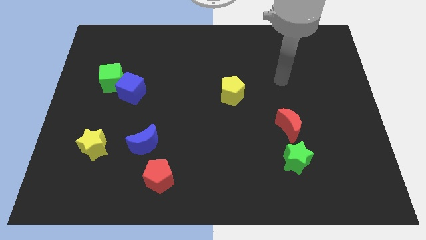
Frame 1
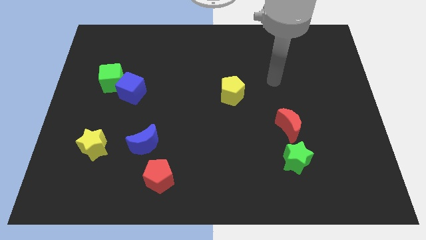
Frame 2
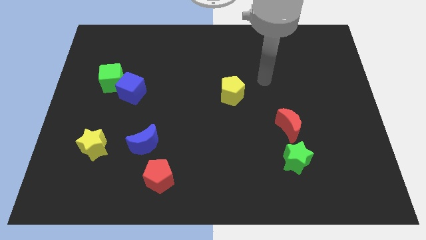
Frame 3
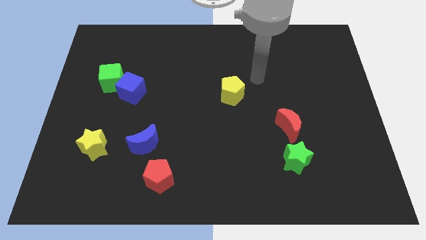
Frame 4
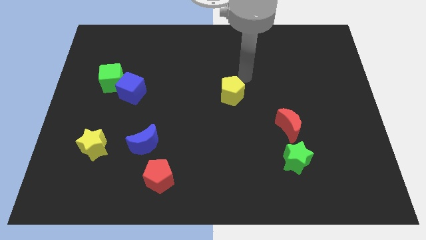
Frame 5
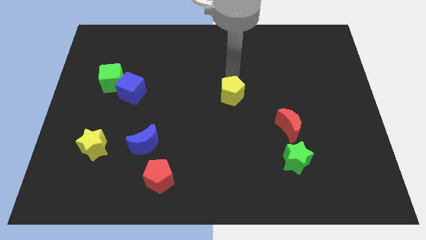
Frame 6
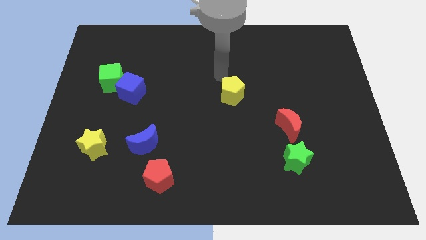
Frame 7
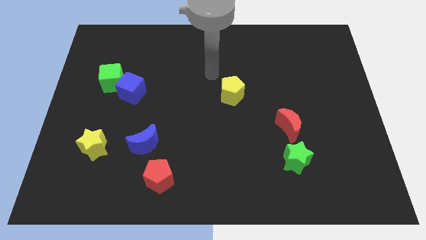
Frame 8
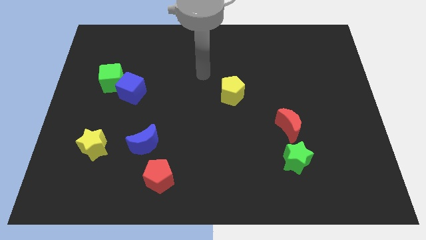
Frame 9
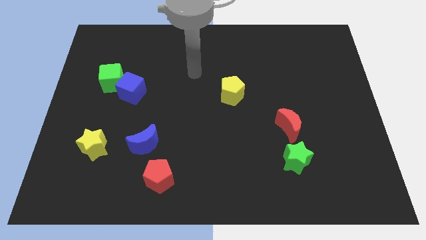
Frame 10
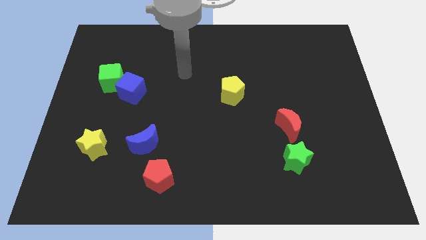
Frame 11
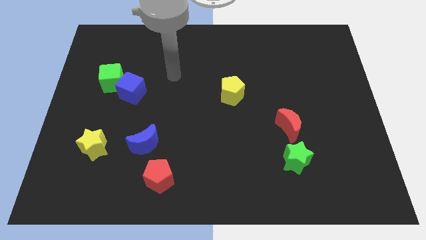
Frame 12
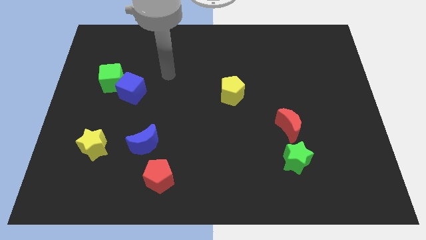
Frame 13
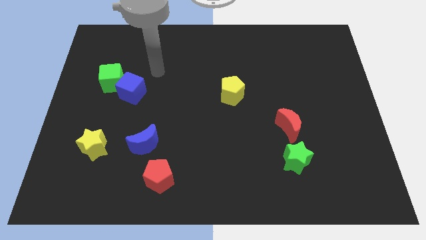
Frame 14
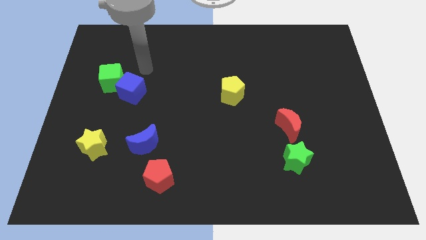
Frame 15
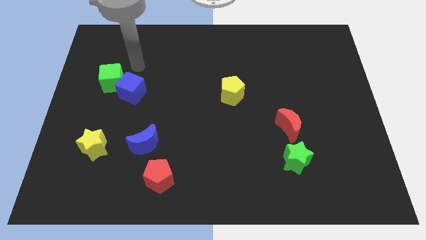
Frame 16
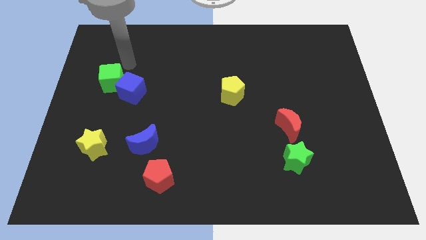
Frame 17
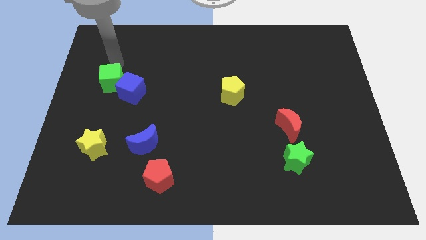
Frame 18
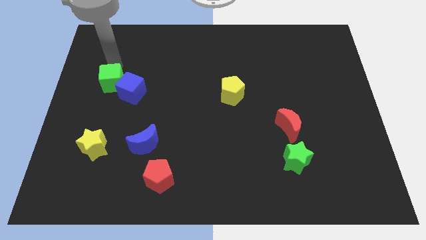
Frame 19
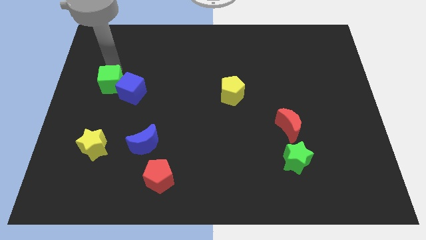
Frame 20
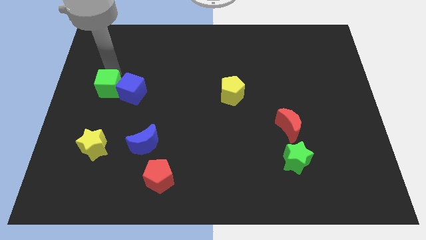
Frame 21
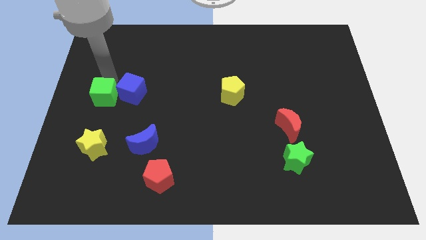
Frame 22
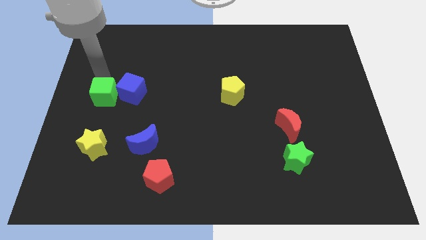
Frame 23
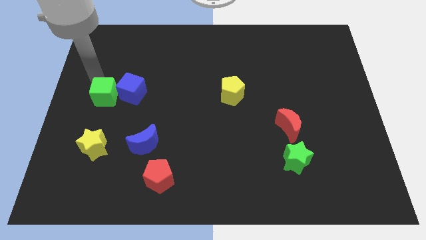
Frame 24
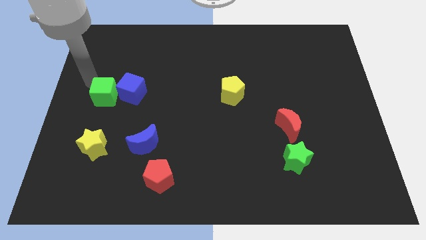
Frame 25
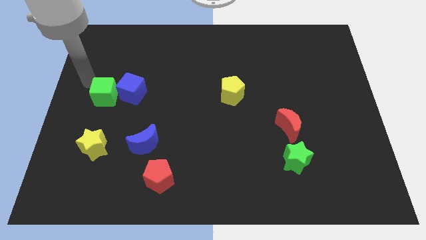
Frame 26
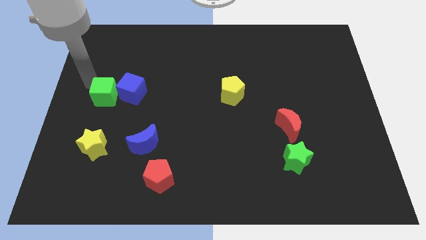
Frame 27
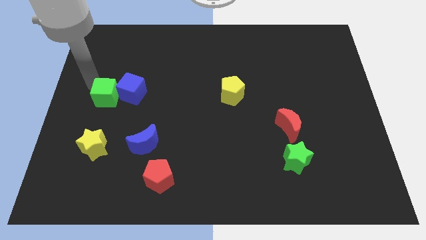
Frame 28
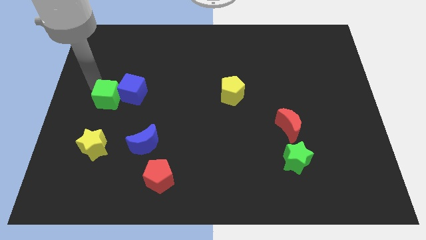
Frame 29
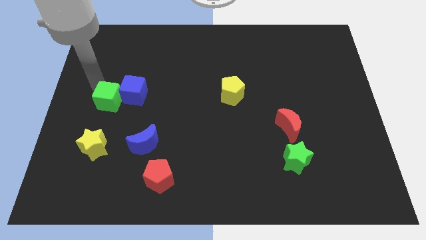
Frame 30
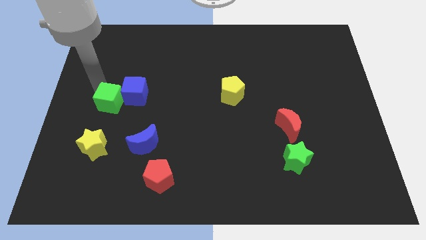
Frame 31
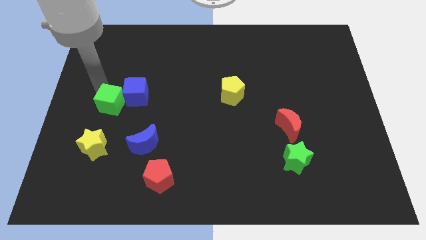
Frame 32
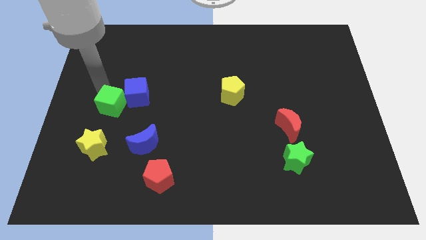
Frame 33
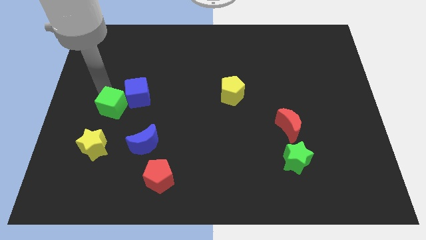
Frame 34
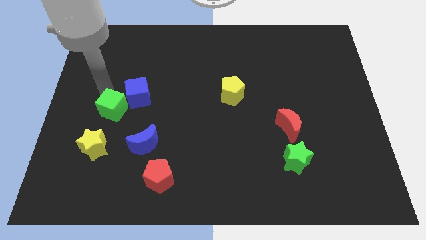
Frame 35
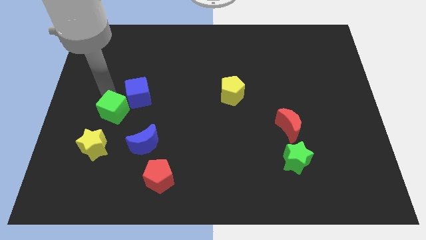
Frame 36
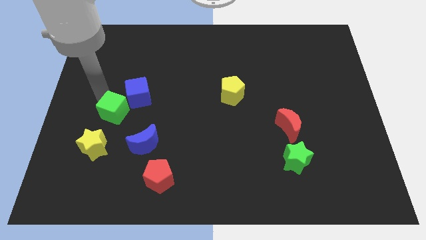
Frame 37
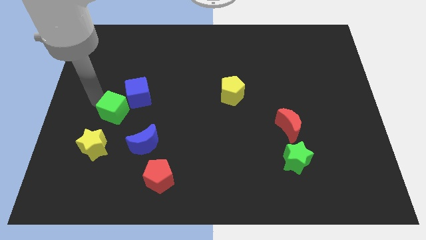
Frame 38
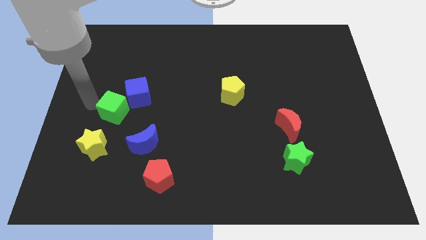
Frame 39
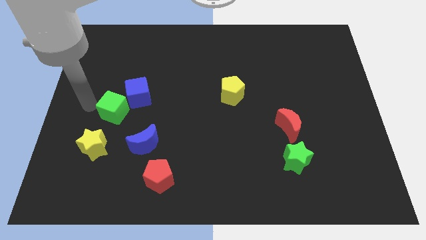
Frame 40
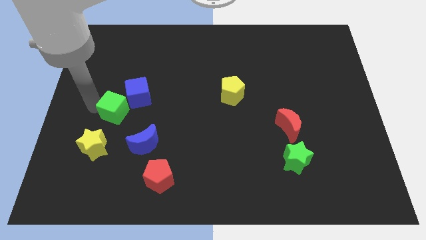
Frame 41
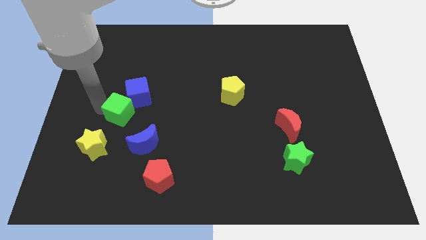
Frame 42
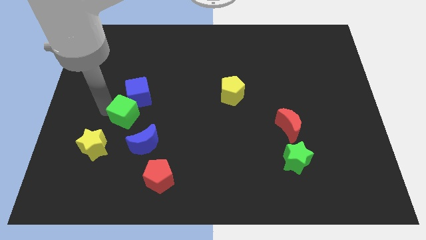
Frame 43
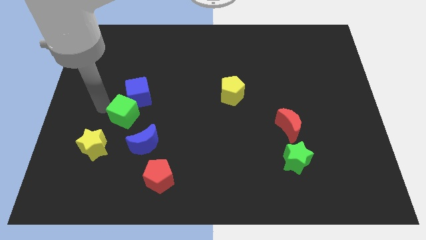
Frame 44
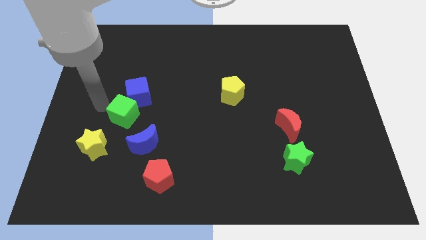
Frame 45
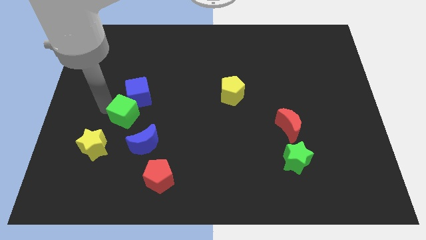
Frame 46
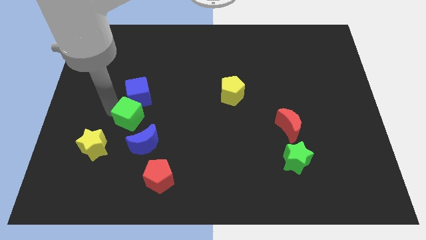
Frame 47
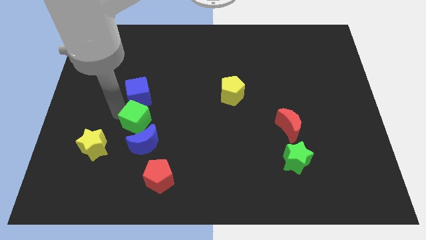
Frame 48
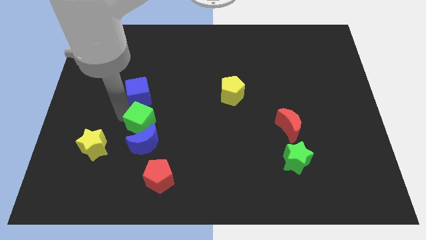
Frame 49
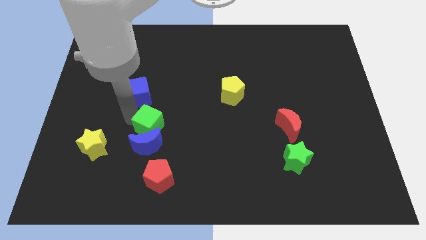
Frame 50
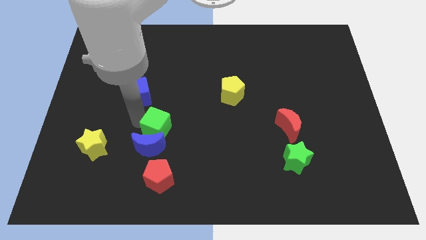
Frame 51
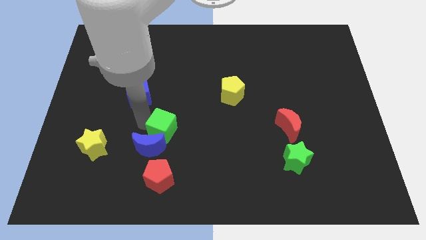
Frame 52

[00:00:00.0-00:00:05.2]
slide the green cube downwards and right

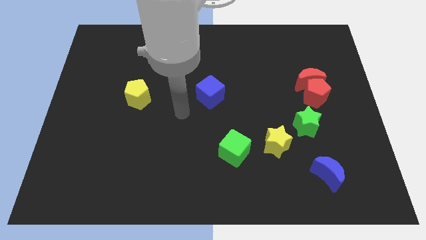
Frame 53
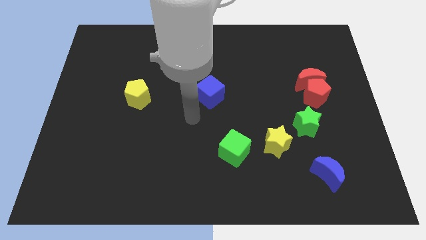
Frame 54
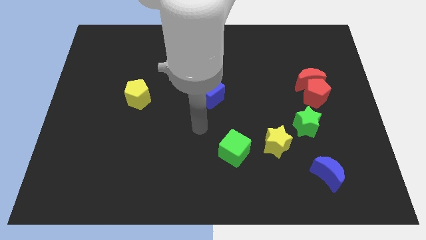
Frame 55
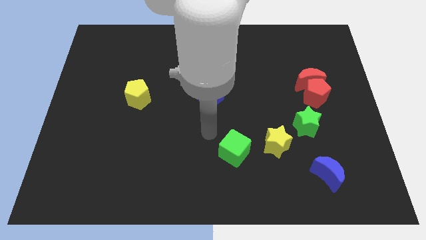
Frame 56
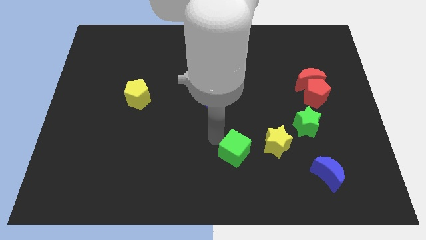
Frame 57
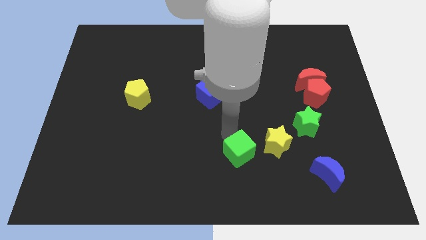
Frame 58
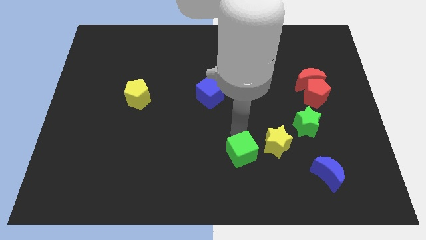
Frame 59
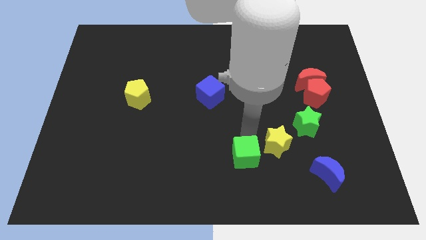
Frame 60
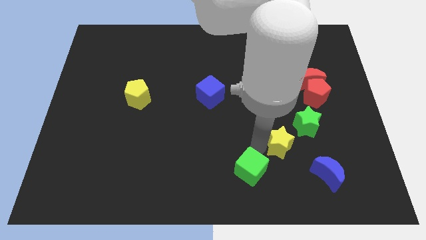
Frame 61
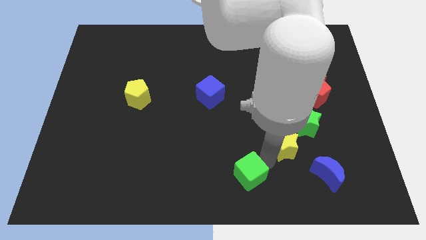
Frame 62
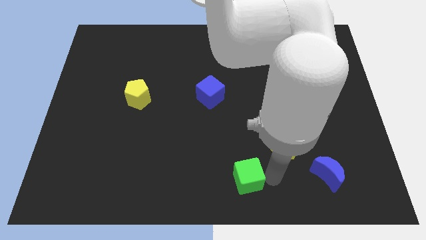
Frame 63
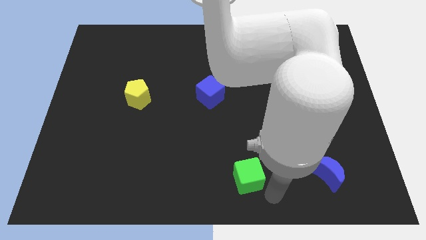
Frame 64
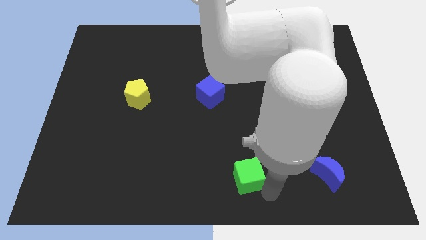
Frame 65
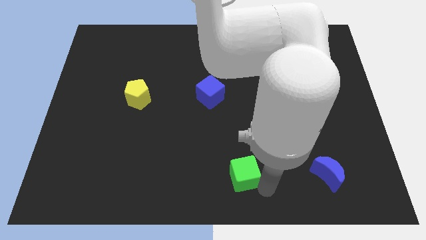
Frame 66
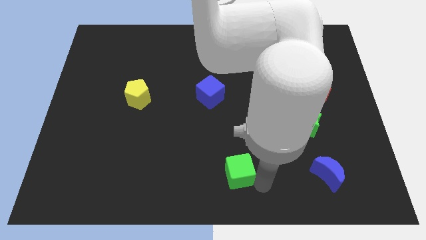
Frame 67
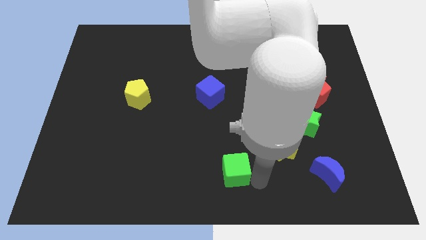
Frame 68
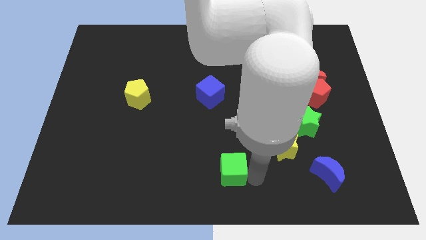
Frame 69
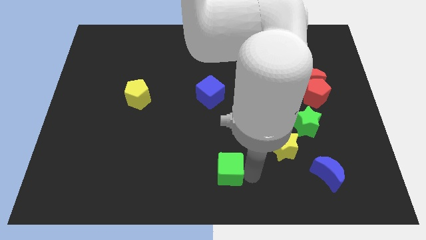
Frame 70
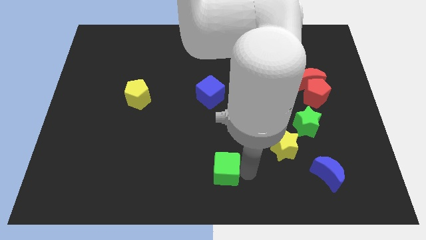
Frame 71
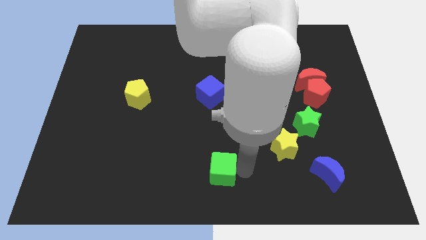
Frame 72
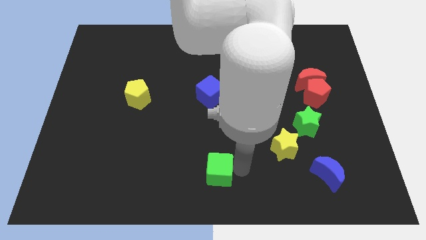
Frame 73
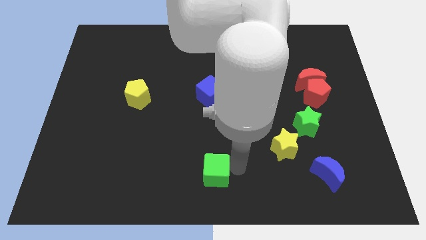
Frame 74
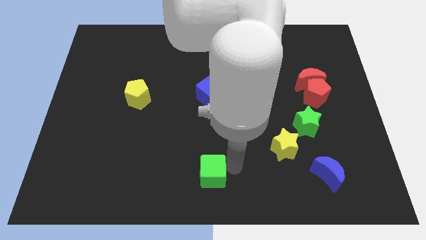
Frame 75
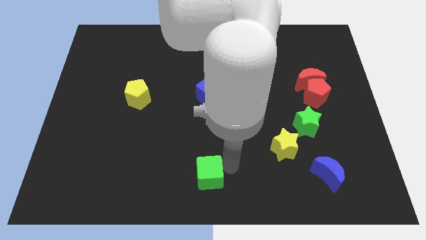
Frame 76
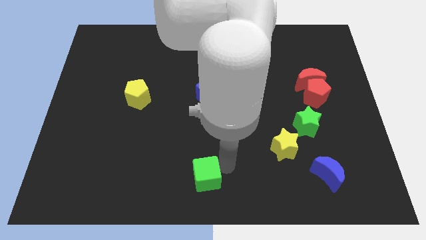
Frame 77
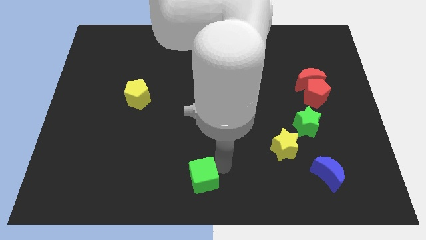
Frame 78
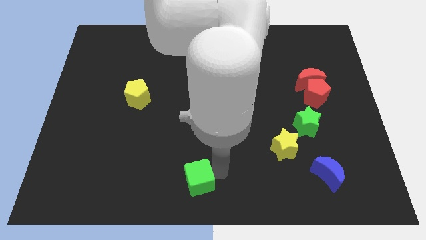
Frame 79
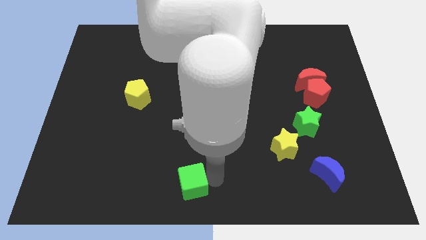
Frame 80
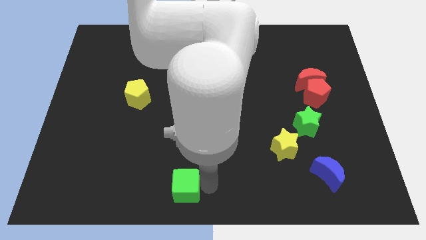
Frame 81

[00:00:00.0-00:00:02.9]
push the green cube slightly to the left
